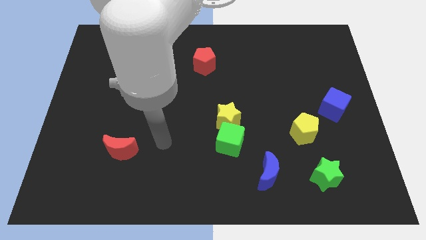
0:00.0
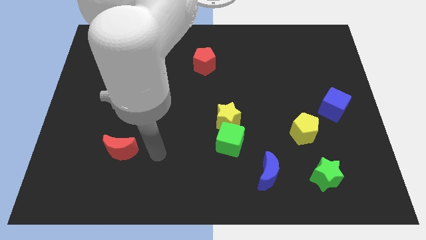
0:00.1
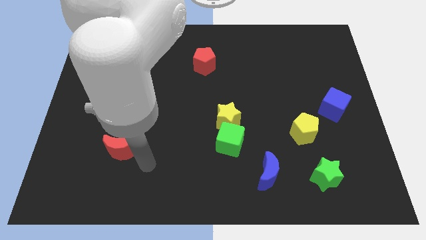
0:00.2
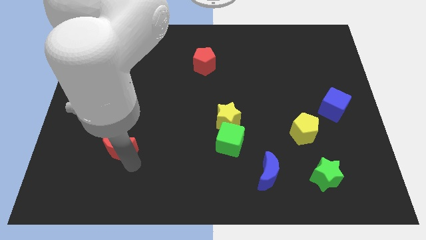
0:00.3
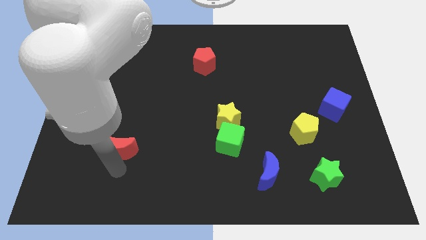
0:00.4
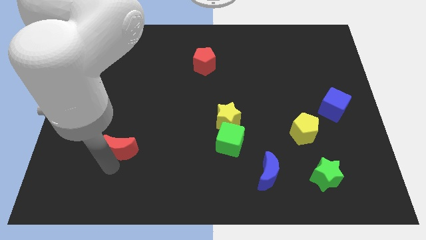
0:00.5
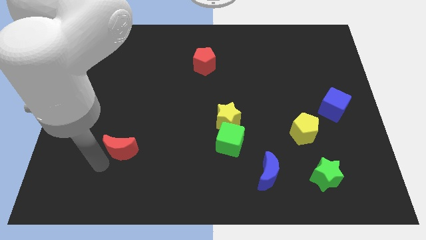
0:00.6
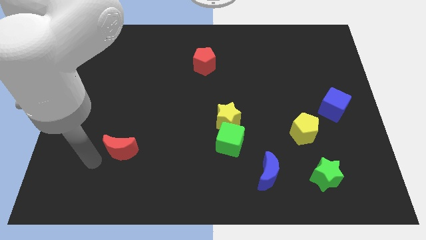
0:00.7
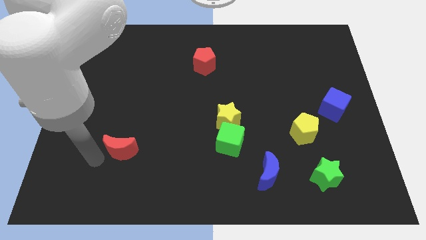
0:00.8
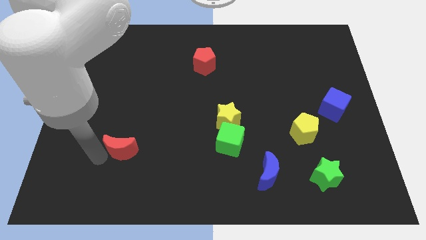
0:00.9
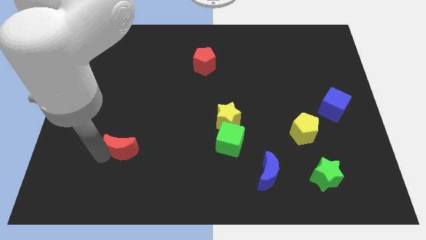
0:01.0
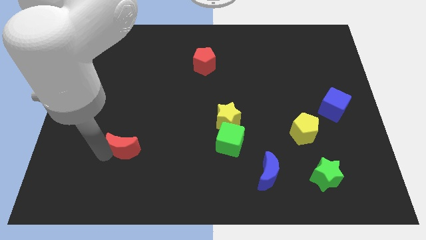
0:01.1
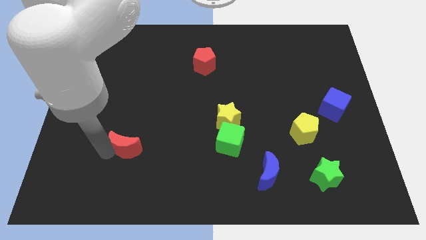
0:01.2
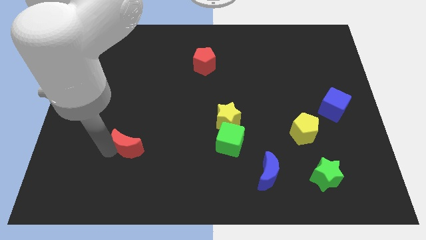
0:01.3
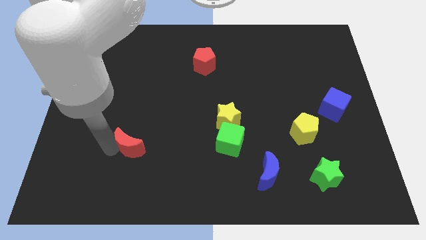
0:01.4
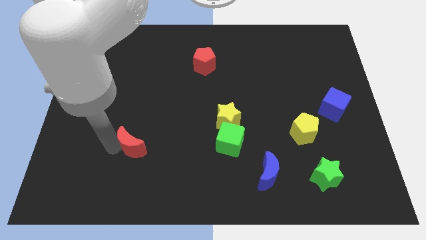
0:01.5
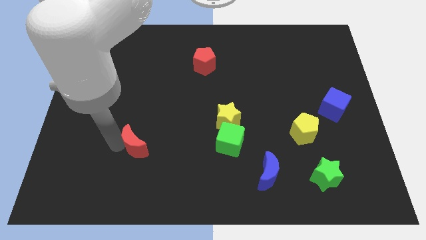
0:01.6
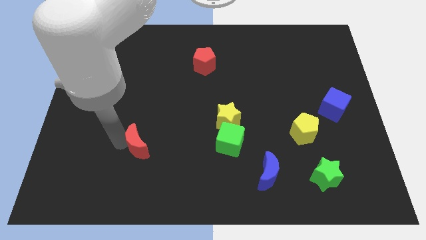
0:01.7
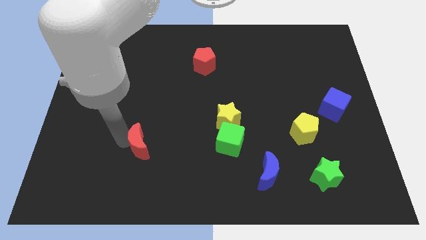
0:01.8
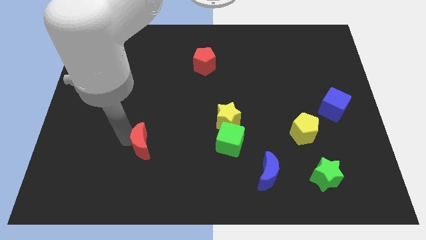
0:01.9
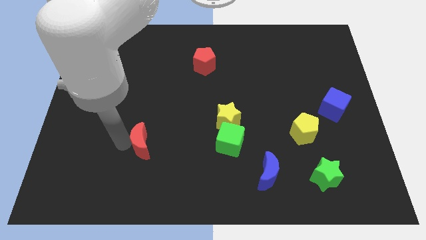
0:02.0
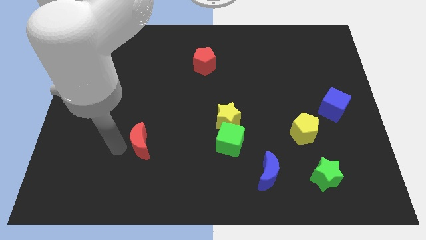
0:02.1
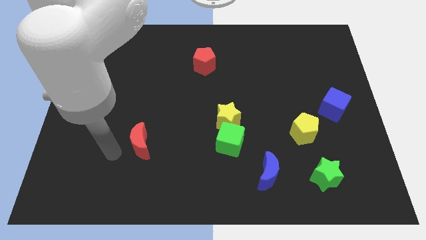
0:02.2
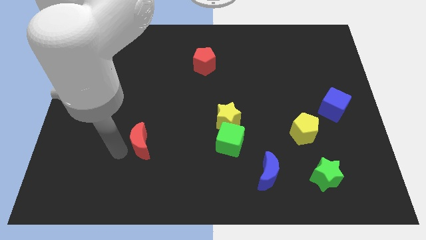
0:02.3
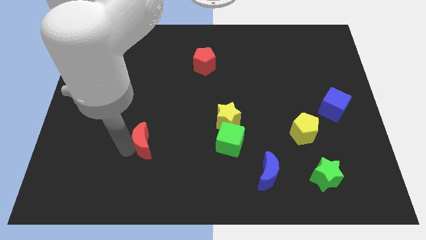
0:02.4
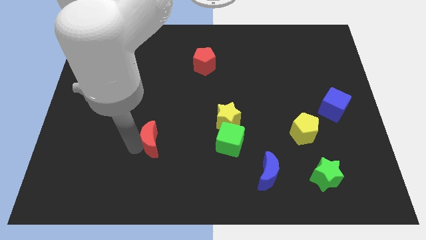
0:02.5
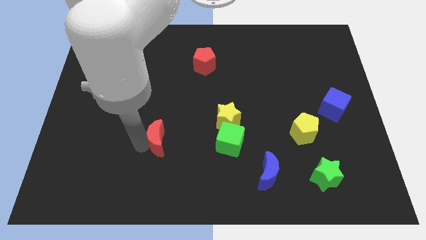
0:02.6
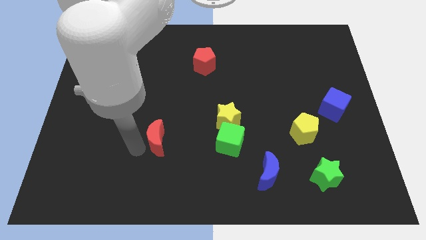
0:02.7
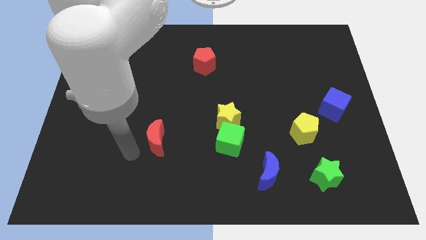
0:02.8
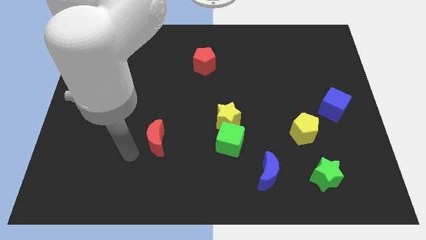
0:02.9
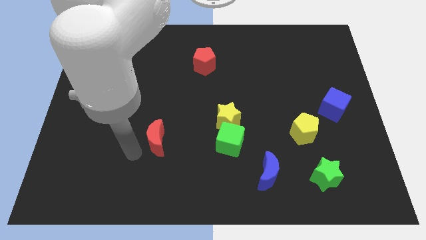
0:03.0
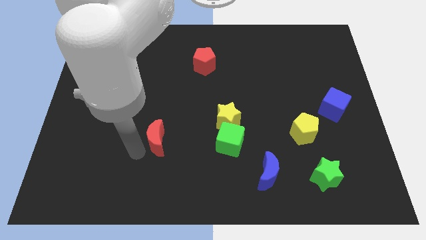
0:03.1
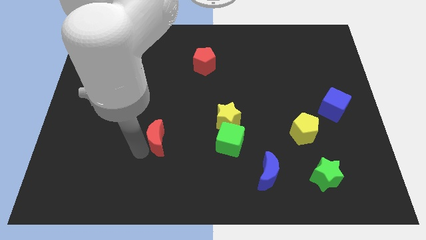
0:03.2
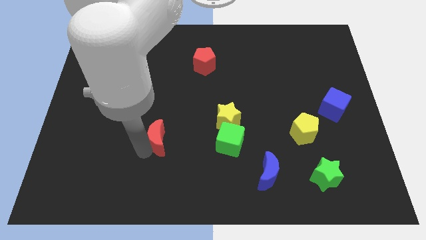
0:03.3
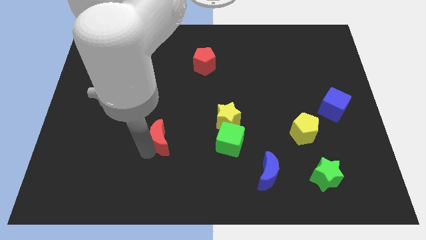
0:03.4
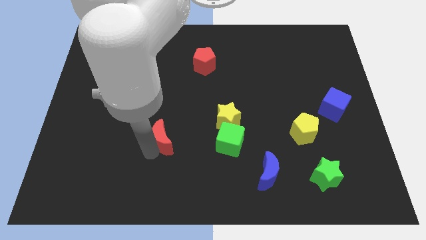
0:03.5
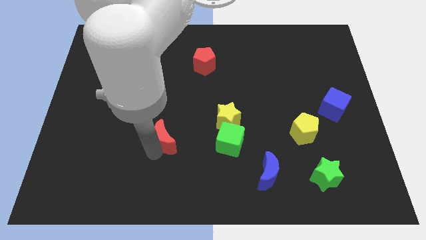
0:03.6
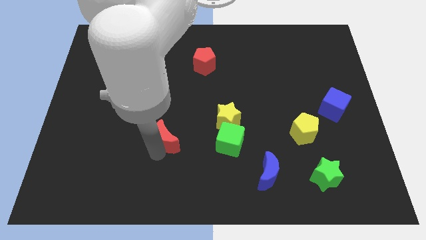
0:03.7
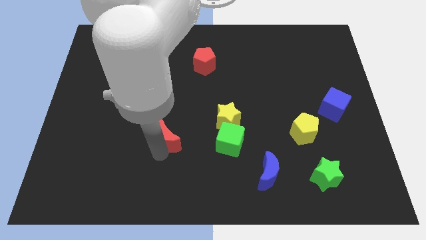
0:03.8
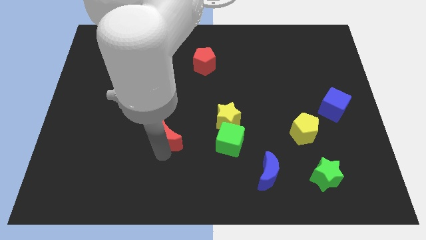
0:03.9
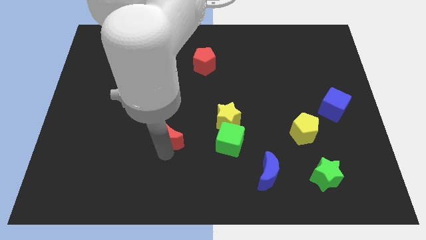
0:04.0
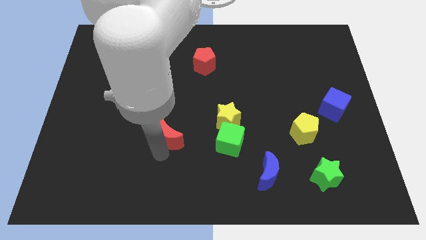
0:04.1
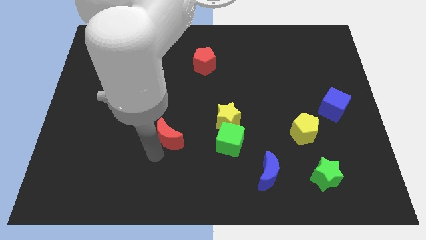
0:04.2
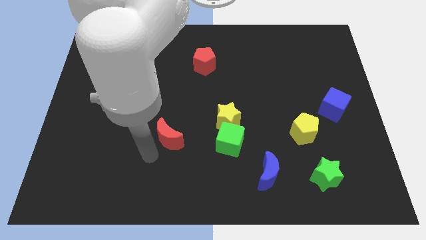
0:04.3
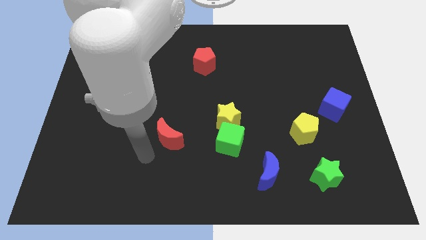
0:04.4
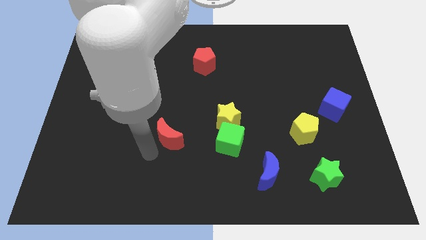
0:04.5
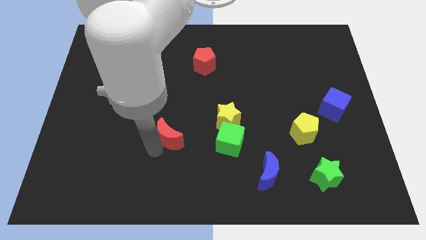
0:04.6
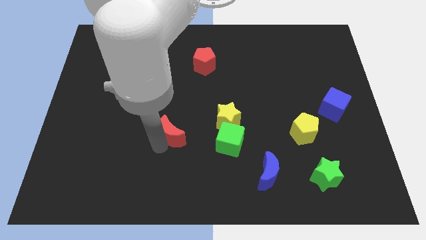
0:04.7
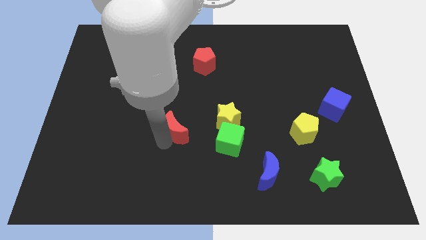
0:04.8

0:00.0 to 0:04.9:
slide the red moon to the center

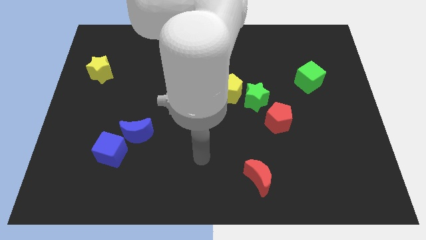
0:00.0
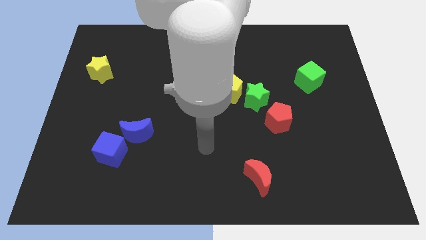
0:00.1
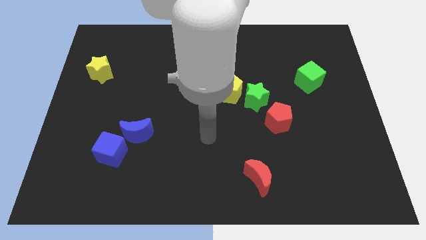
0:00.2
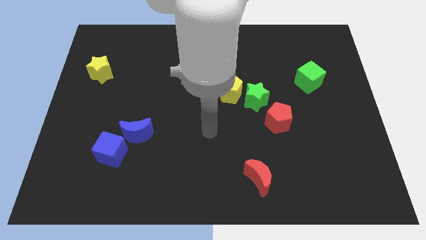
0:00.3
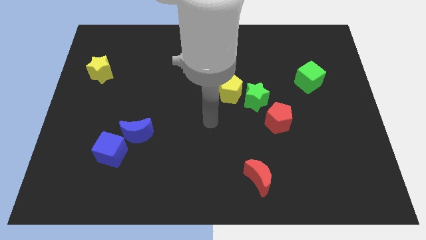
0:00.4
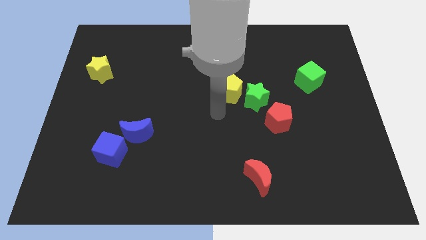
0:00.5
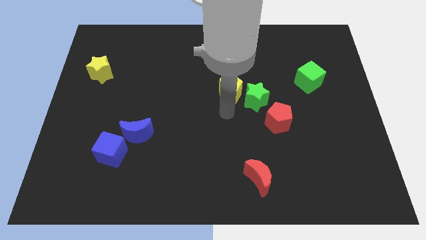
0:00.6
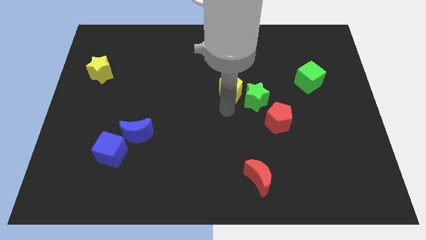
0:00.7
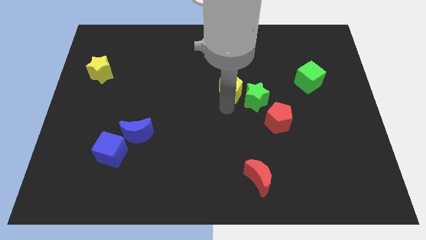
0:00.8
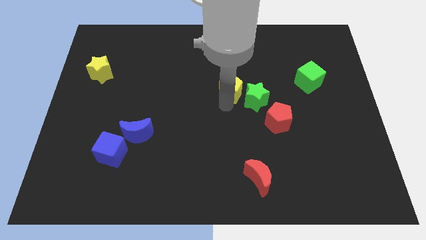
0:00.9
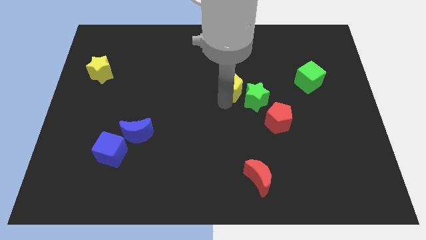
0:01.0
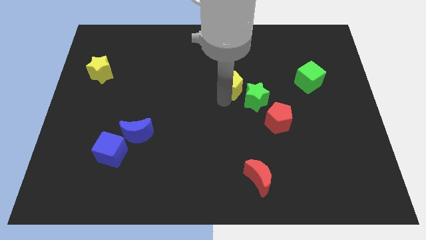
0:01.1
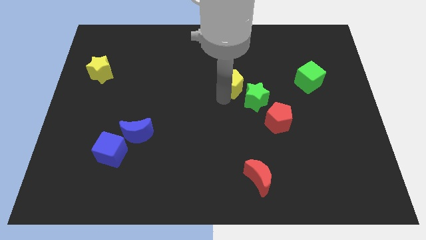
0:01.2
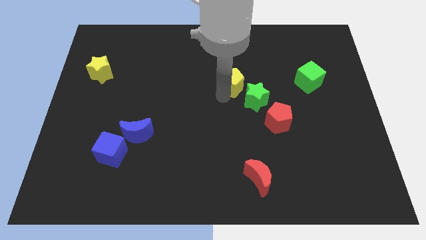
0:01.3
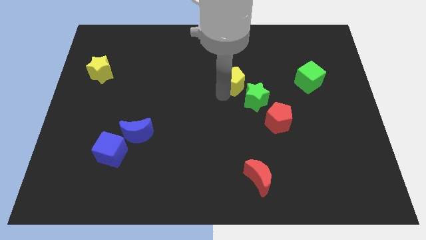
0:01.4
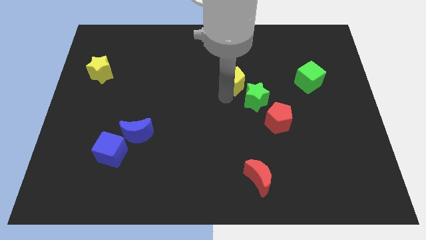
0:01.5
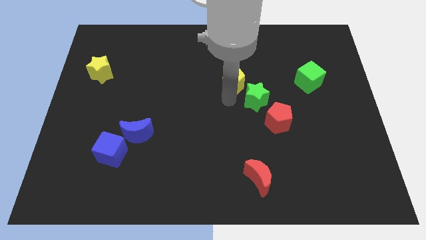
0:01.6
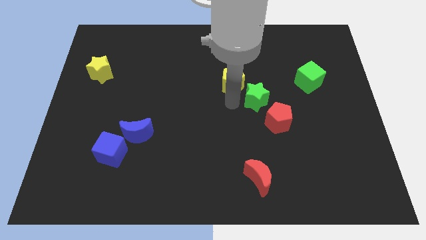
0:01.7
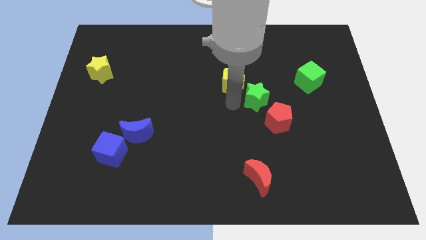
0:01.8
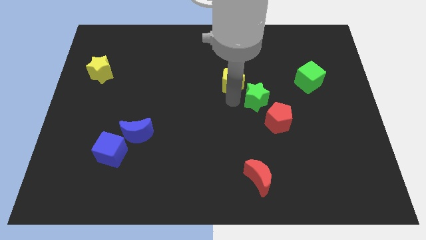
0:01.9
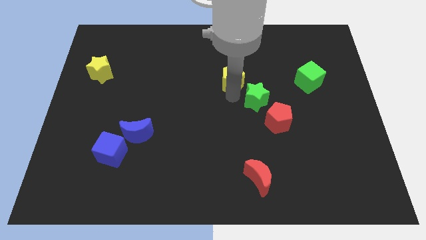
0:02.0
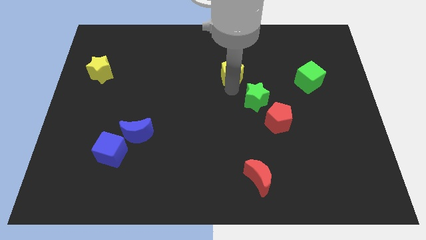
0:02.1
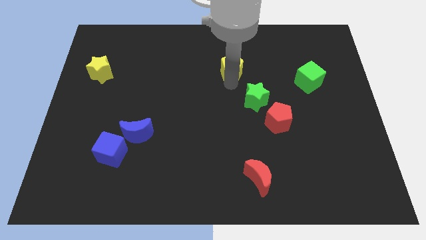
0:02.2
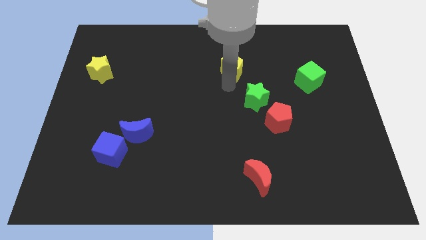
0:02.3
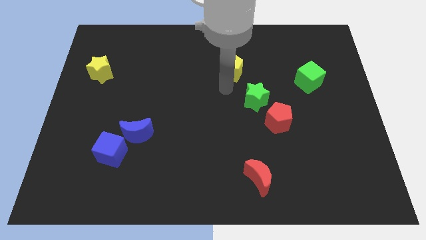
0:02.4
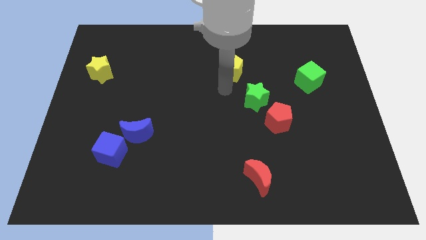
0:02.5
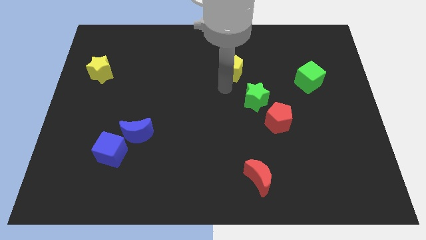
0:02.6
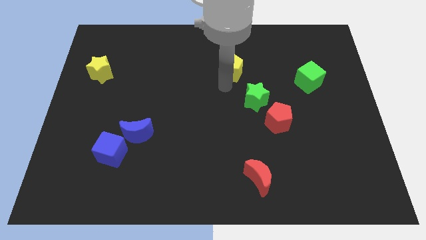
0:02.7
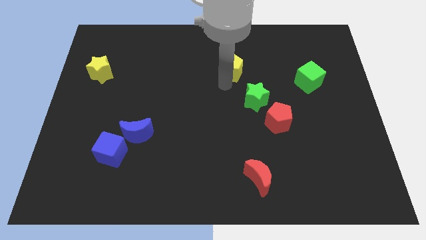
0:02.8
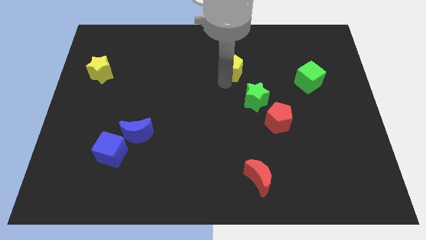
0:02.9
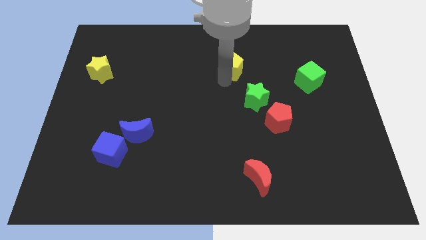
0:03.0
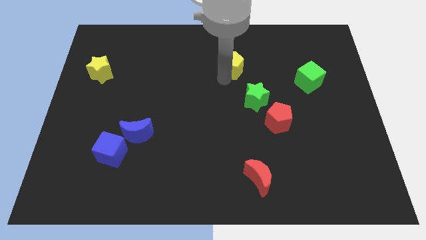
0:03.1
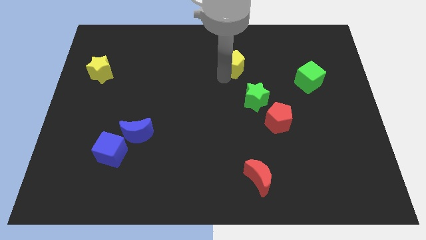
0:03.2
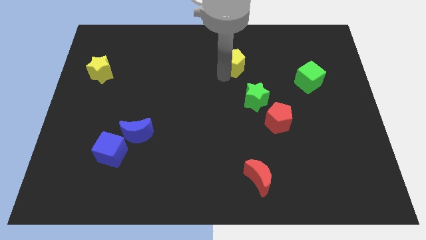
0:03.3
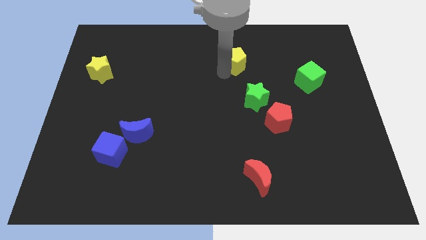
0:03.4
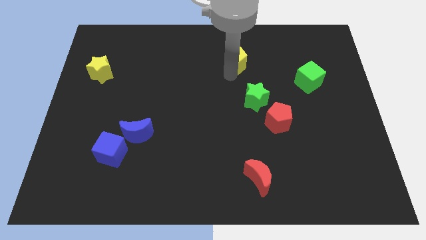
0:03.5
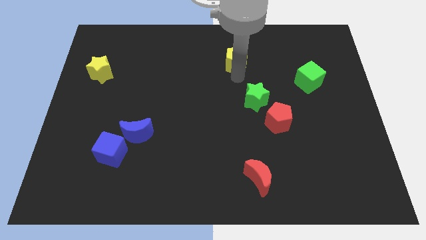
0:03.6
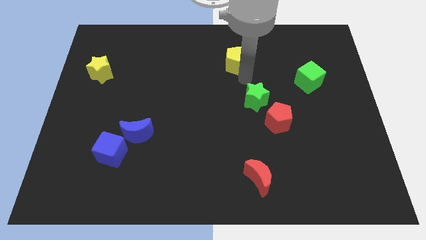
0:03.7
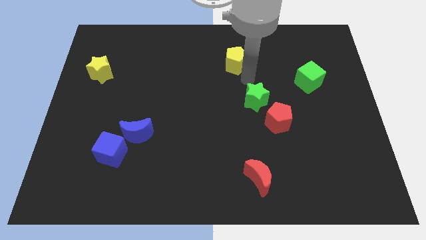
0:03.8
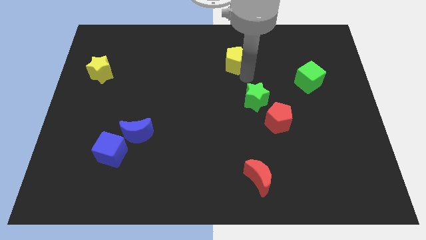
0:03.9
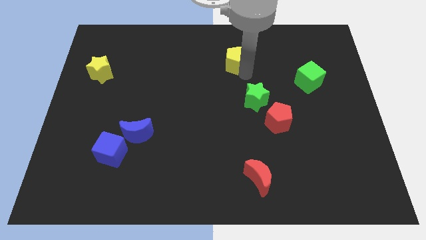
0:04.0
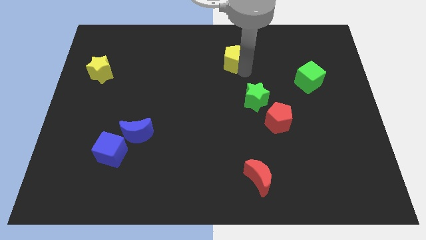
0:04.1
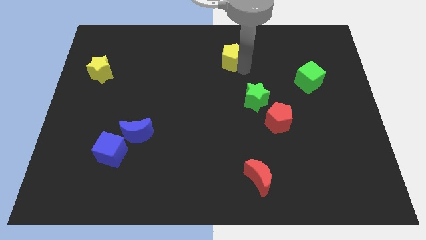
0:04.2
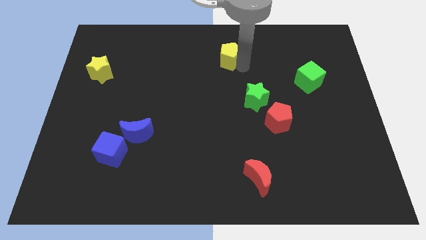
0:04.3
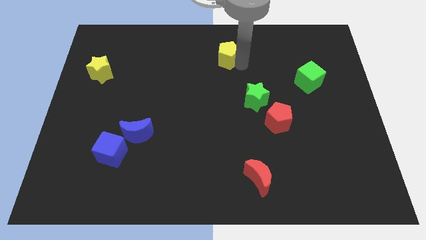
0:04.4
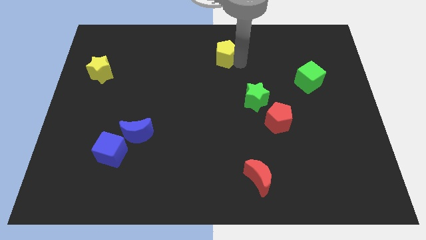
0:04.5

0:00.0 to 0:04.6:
slide the yellow pentagon to the towards your base
